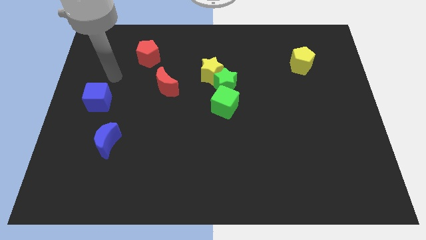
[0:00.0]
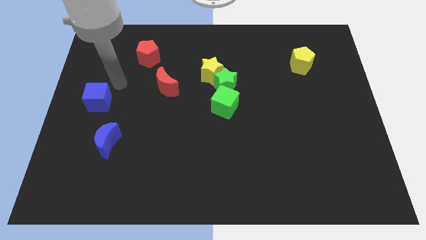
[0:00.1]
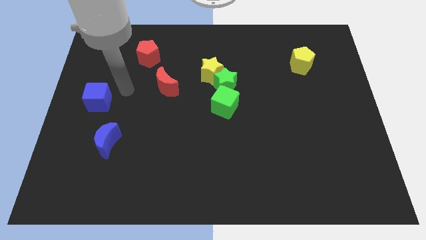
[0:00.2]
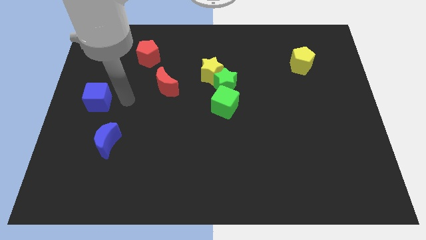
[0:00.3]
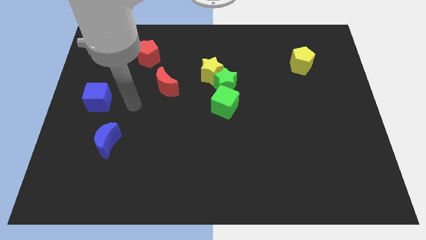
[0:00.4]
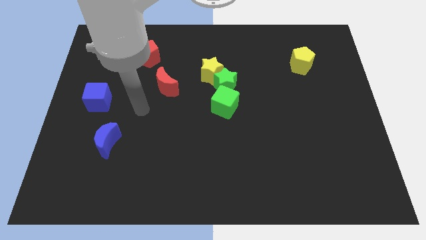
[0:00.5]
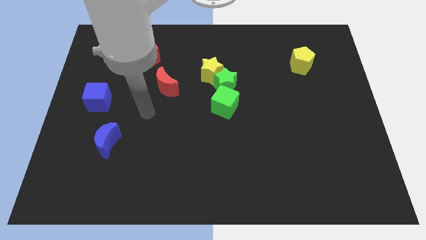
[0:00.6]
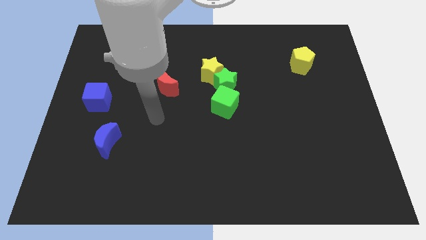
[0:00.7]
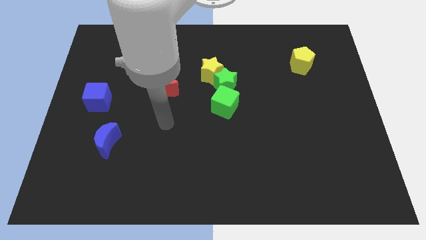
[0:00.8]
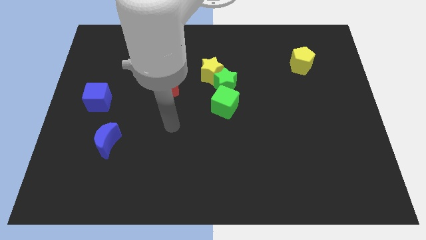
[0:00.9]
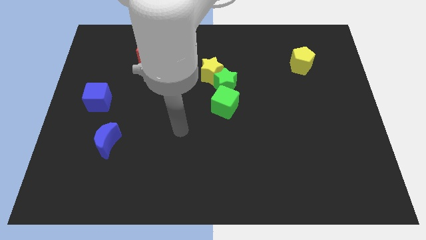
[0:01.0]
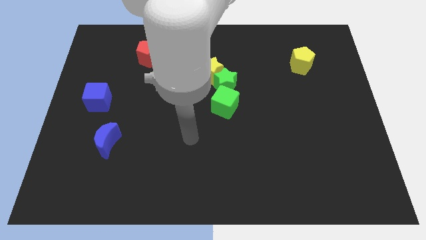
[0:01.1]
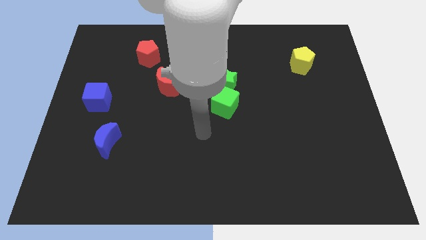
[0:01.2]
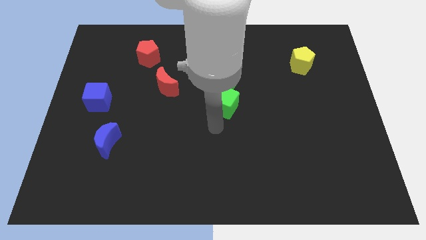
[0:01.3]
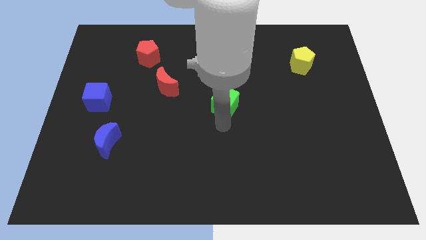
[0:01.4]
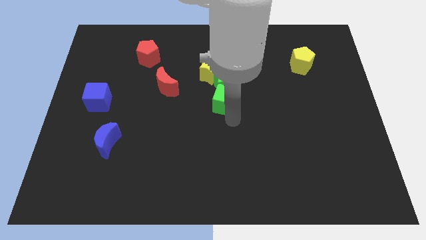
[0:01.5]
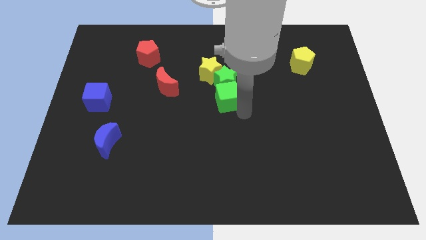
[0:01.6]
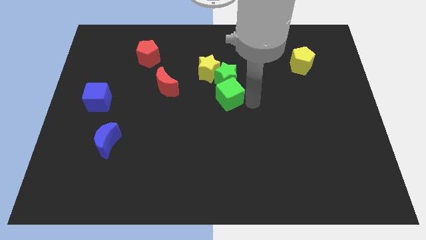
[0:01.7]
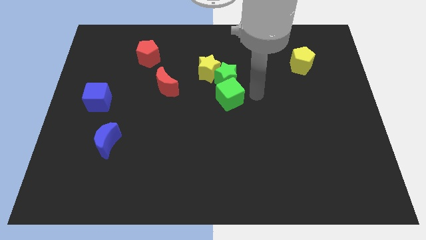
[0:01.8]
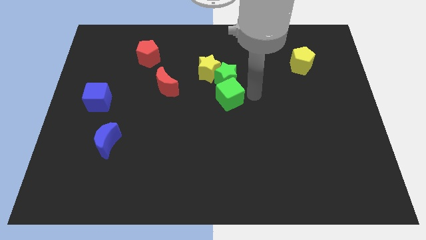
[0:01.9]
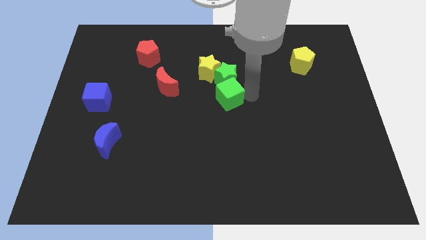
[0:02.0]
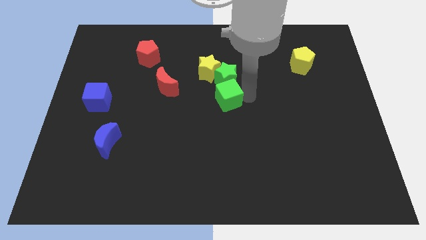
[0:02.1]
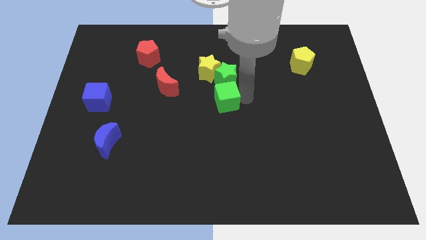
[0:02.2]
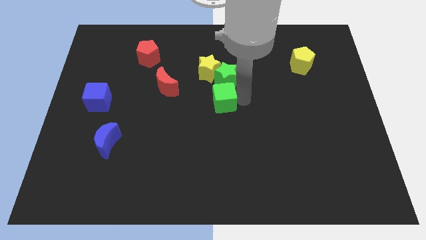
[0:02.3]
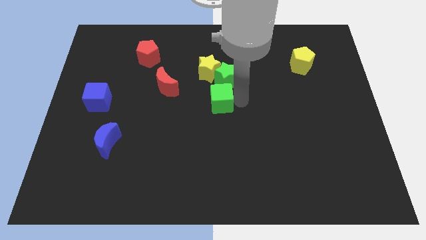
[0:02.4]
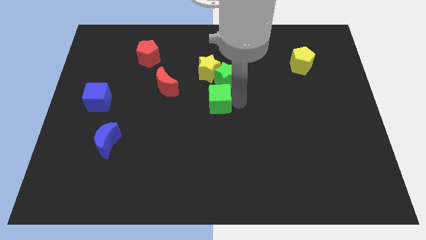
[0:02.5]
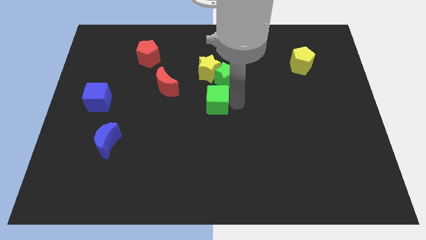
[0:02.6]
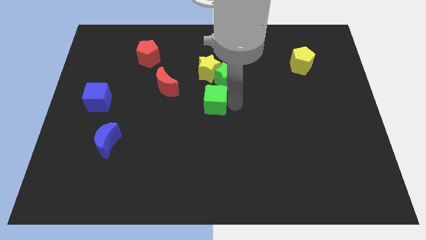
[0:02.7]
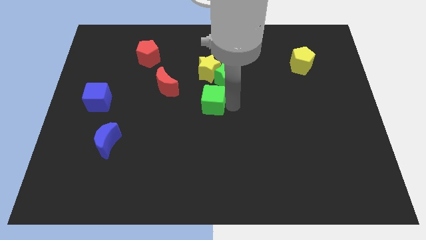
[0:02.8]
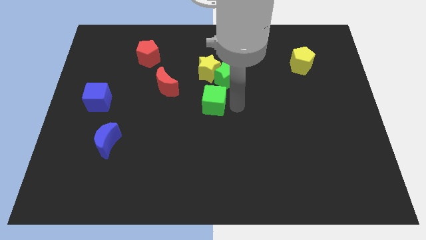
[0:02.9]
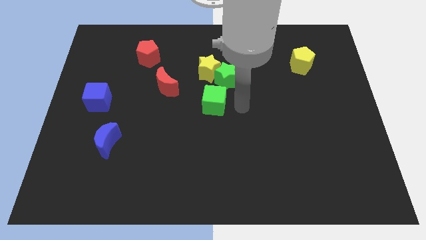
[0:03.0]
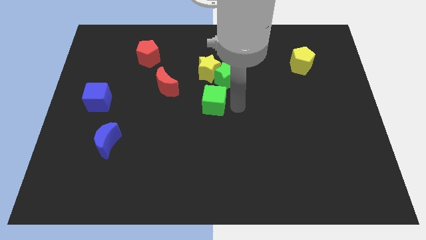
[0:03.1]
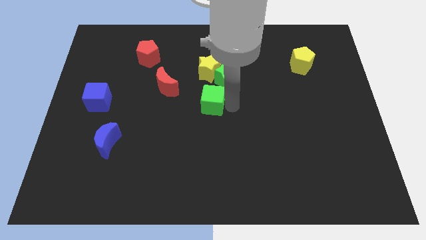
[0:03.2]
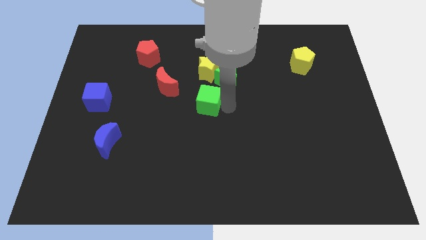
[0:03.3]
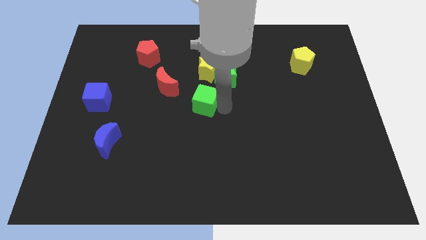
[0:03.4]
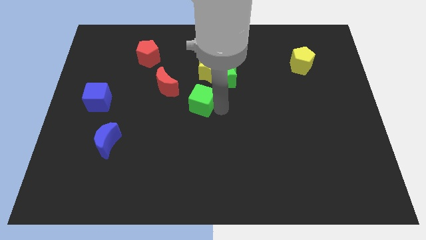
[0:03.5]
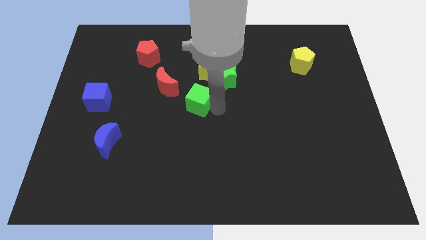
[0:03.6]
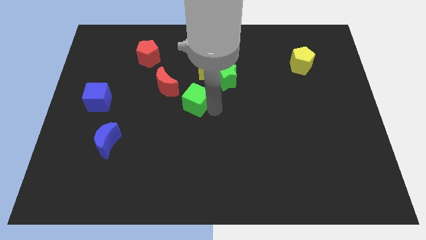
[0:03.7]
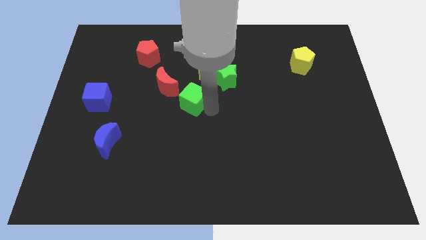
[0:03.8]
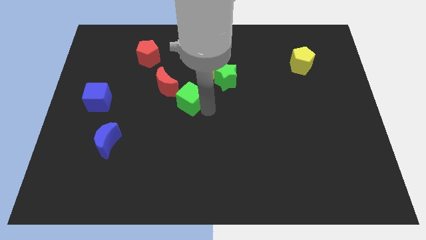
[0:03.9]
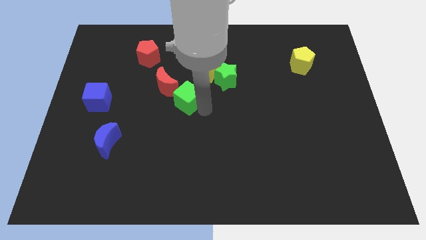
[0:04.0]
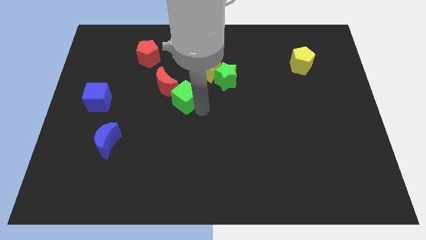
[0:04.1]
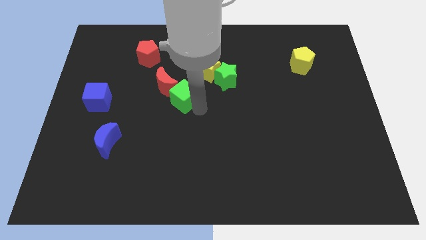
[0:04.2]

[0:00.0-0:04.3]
slightly push the green cube up and to the left diagonally

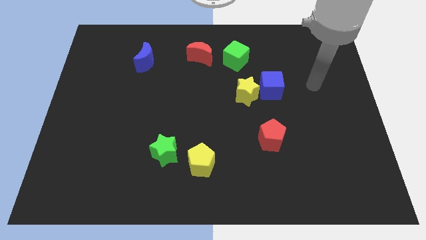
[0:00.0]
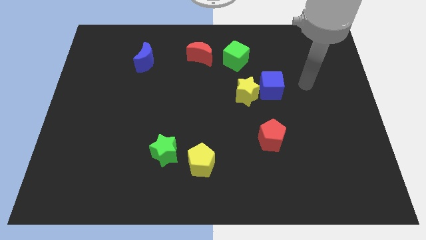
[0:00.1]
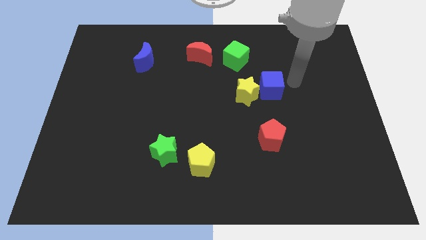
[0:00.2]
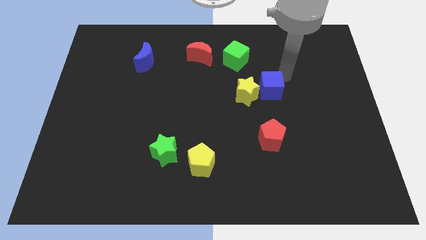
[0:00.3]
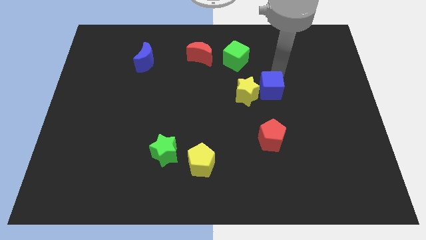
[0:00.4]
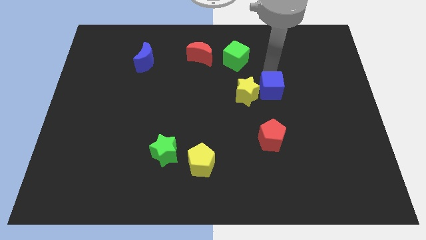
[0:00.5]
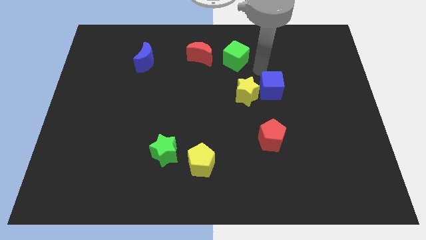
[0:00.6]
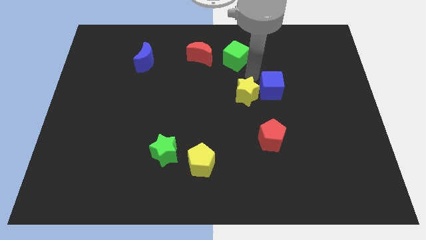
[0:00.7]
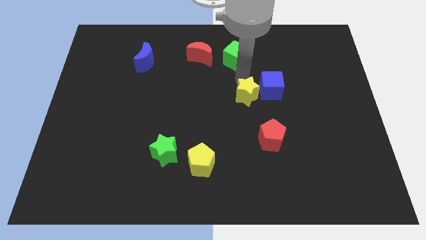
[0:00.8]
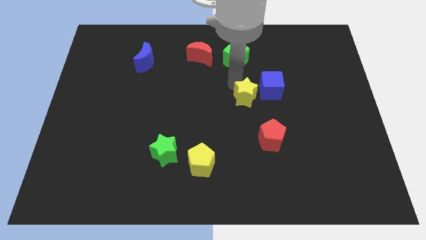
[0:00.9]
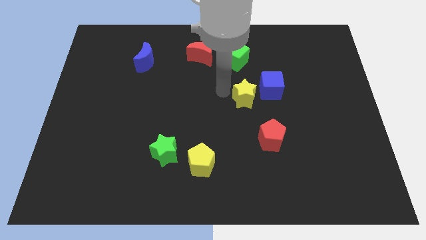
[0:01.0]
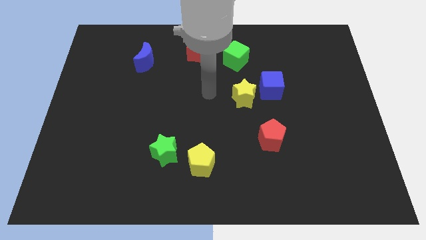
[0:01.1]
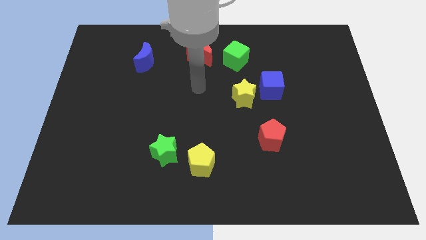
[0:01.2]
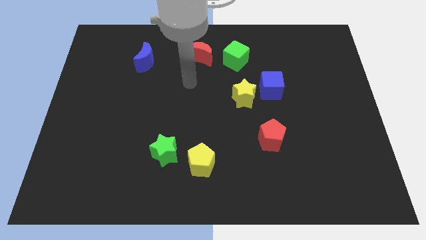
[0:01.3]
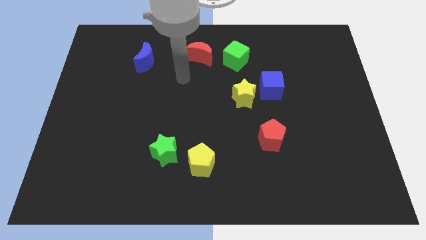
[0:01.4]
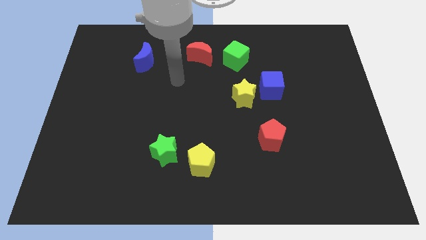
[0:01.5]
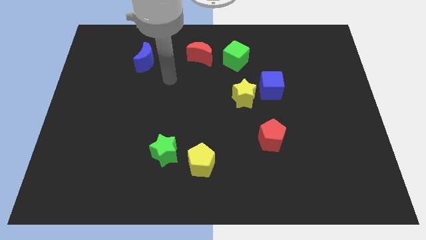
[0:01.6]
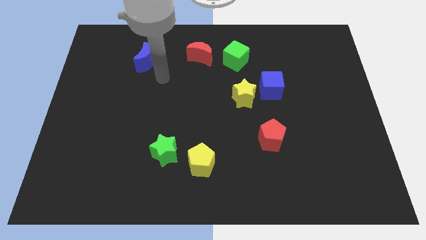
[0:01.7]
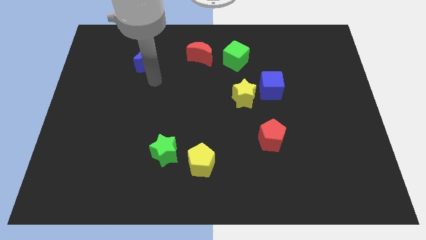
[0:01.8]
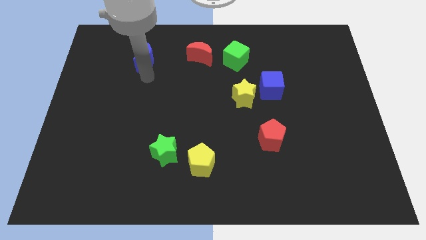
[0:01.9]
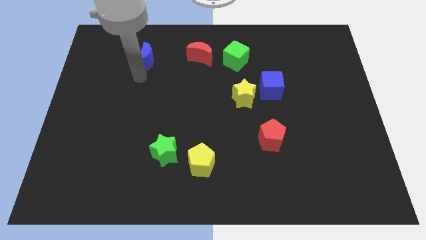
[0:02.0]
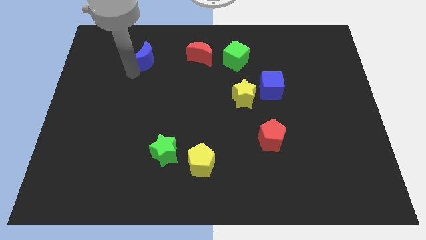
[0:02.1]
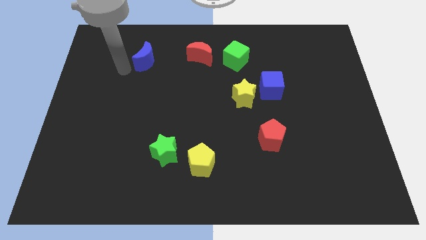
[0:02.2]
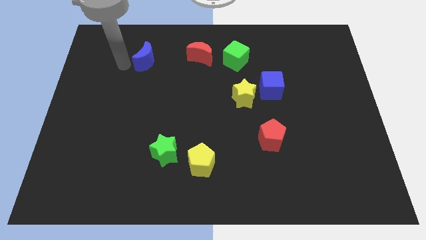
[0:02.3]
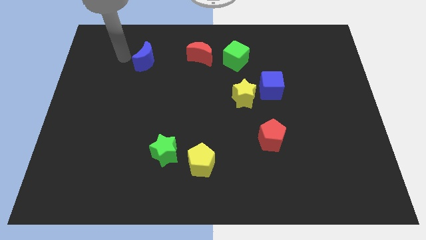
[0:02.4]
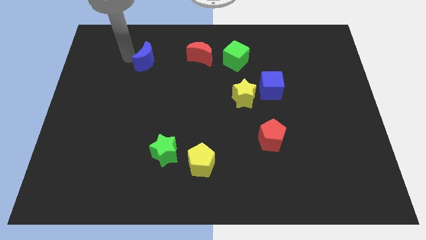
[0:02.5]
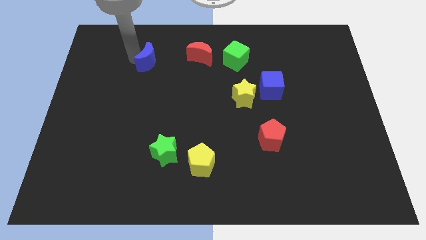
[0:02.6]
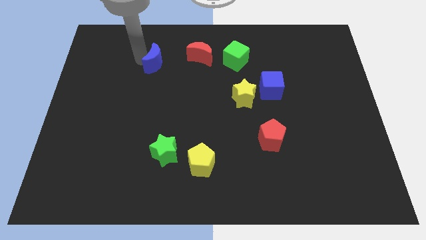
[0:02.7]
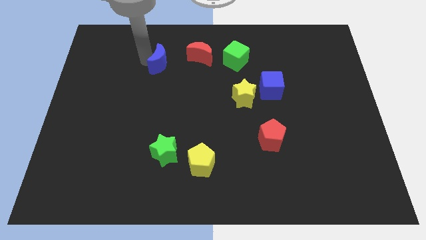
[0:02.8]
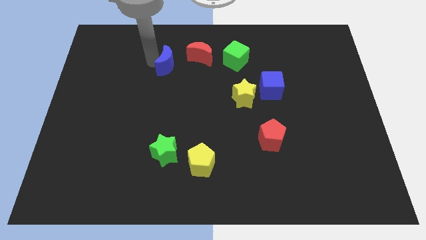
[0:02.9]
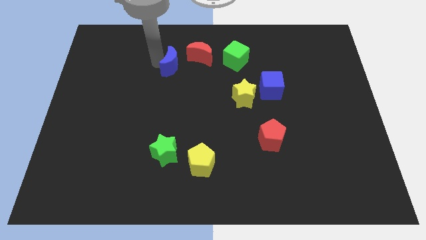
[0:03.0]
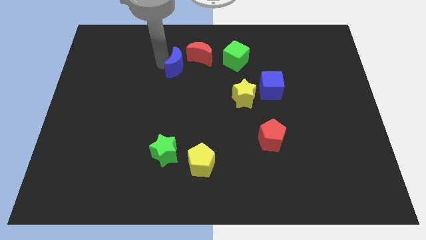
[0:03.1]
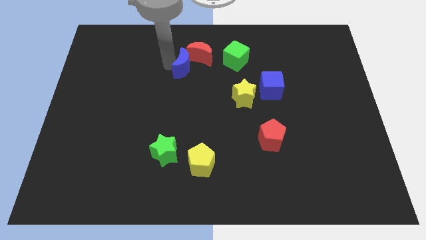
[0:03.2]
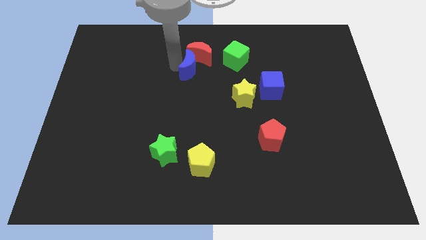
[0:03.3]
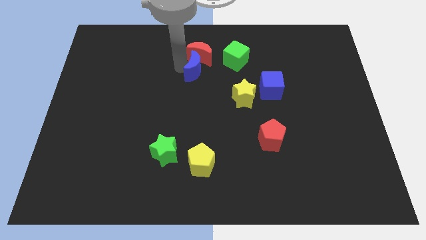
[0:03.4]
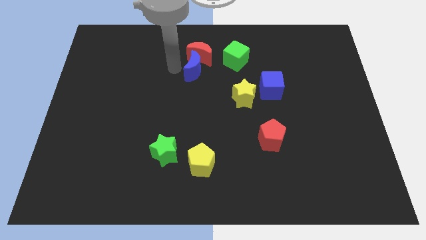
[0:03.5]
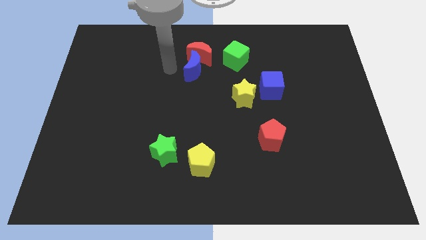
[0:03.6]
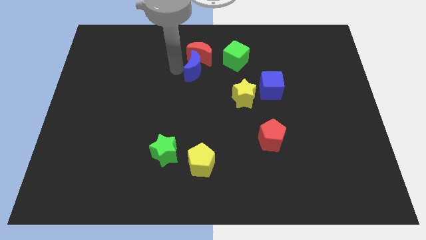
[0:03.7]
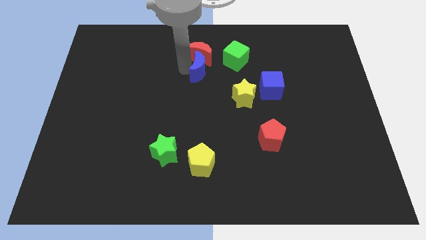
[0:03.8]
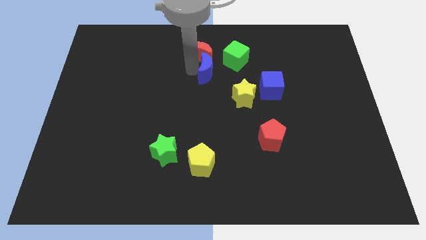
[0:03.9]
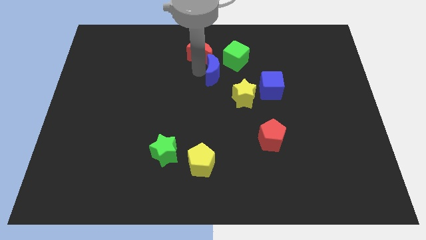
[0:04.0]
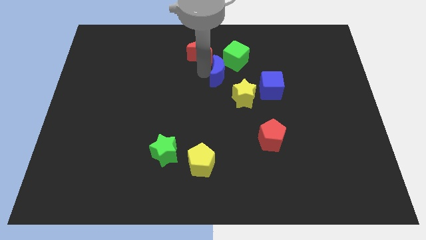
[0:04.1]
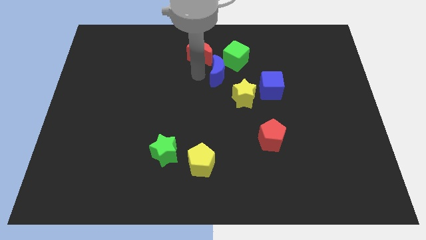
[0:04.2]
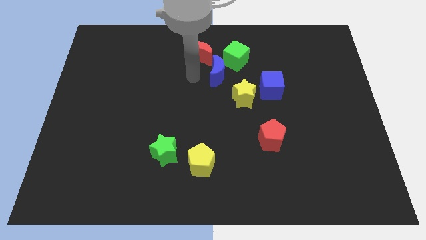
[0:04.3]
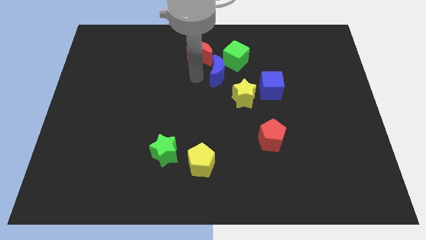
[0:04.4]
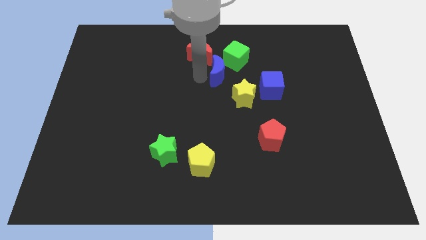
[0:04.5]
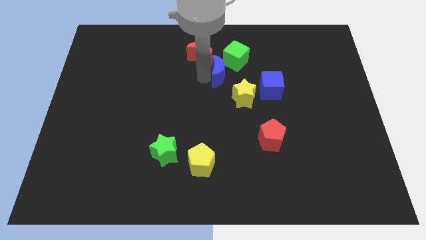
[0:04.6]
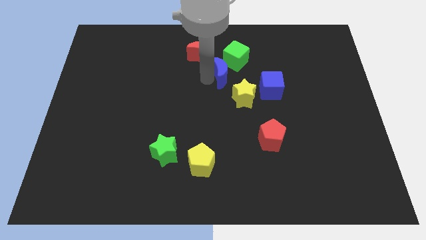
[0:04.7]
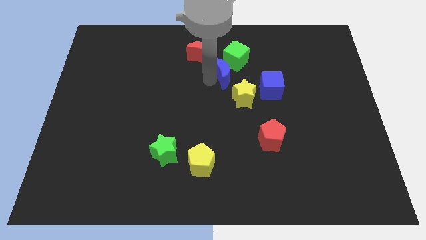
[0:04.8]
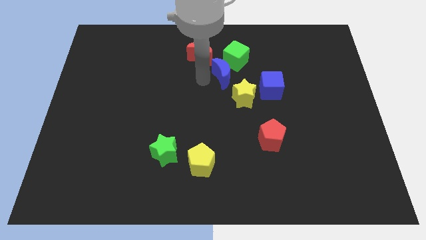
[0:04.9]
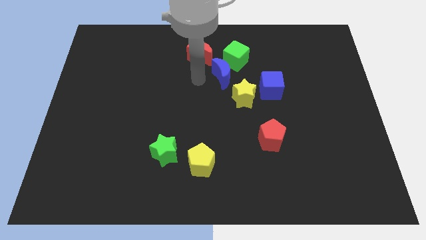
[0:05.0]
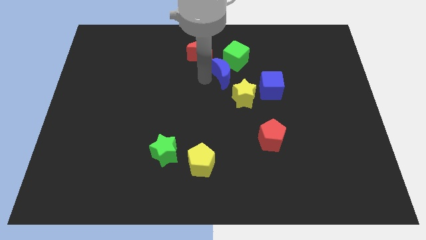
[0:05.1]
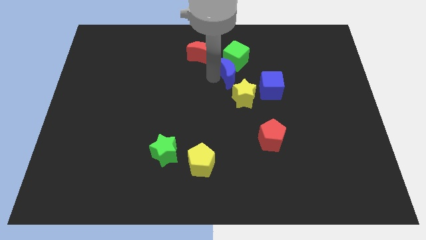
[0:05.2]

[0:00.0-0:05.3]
move the blue moon right
